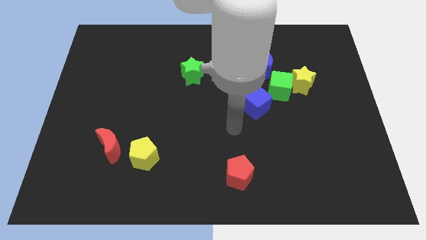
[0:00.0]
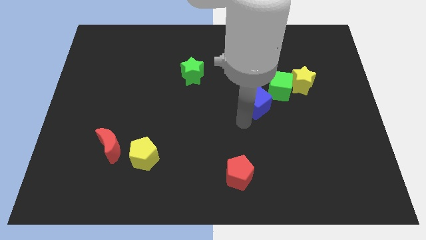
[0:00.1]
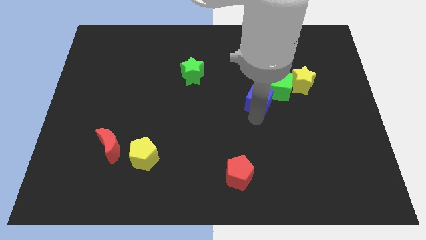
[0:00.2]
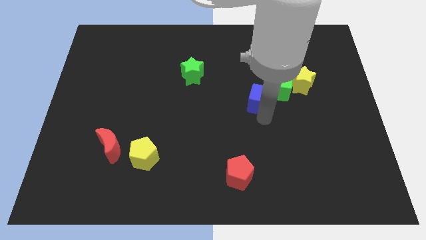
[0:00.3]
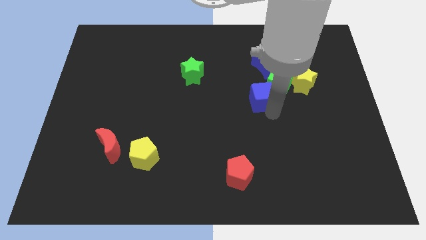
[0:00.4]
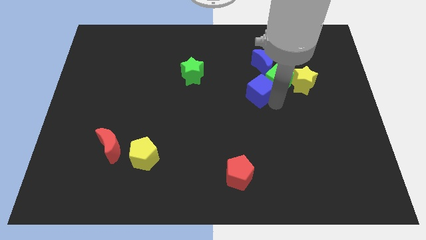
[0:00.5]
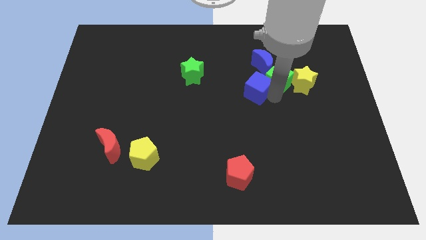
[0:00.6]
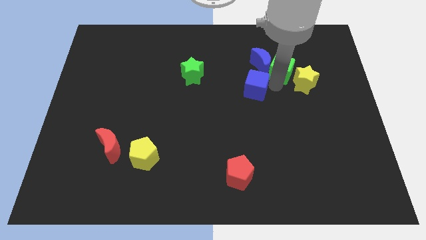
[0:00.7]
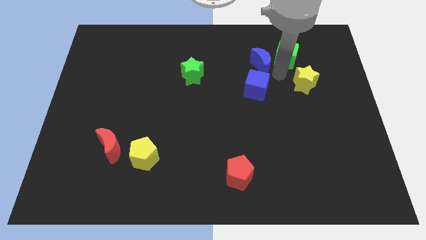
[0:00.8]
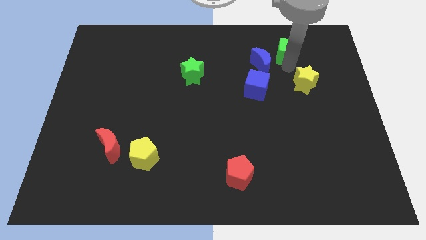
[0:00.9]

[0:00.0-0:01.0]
separate the yellow star from the green cube

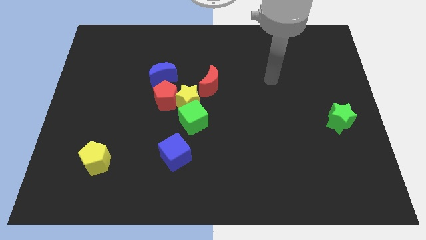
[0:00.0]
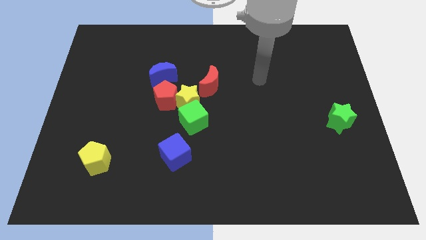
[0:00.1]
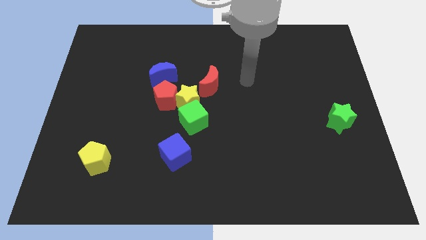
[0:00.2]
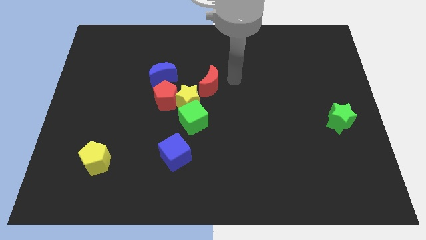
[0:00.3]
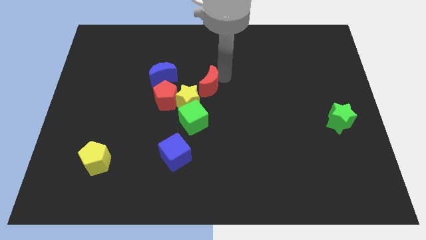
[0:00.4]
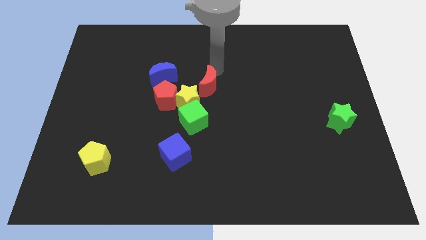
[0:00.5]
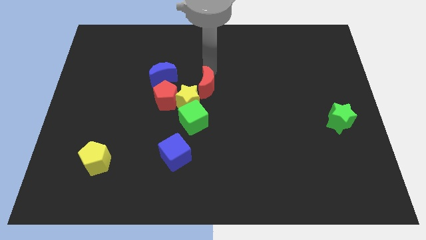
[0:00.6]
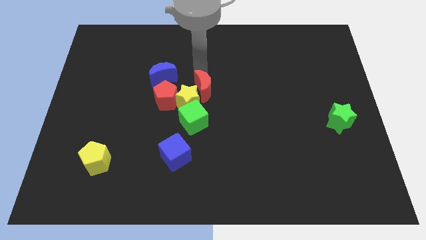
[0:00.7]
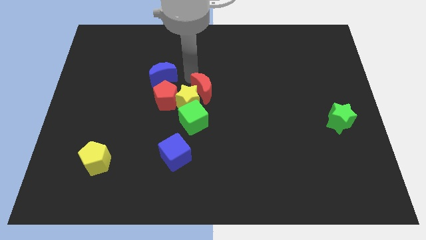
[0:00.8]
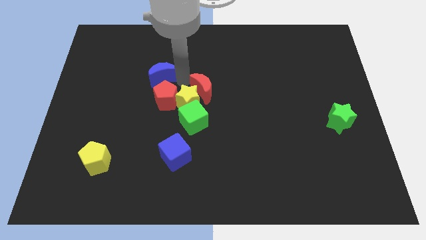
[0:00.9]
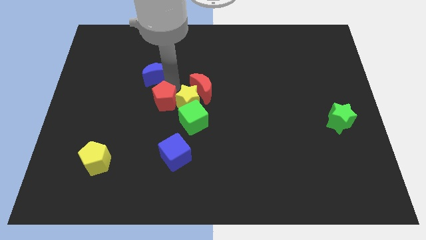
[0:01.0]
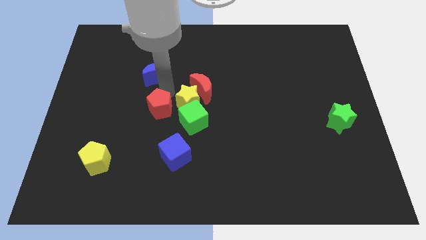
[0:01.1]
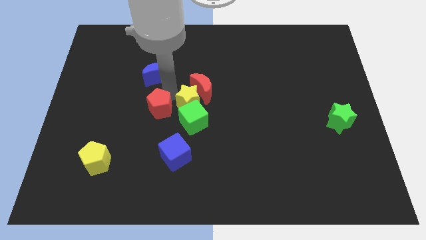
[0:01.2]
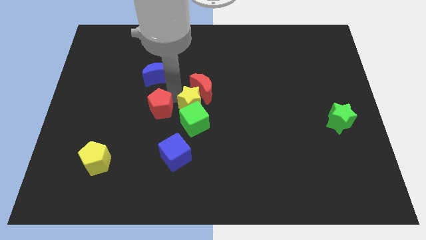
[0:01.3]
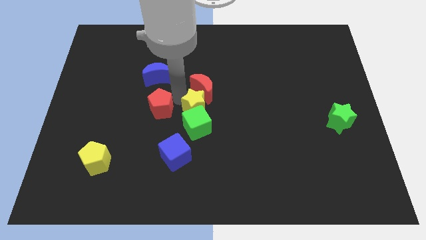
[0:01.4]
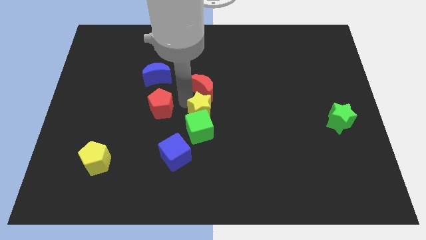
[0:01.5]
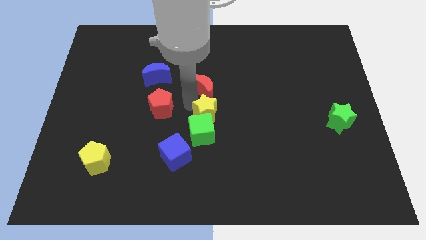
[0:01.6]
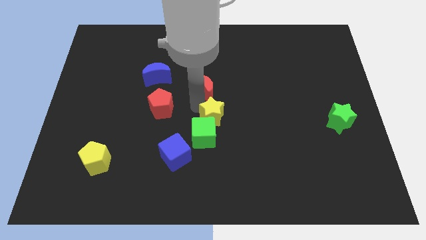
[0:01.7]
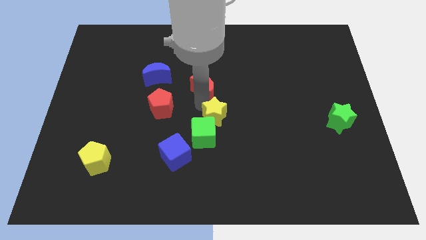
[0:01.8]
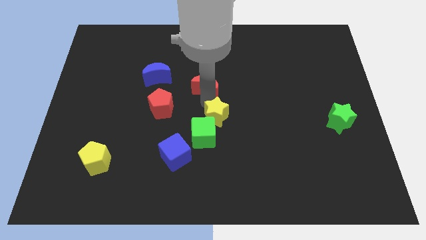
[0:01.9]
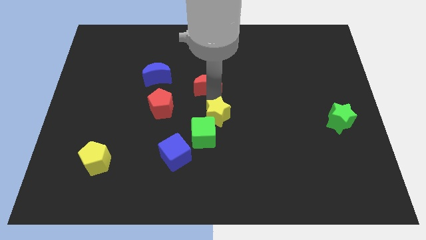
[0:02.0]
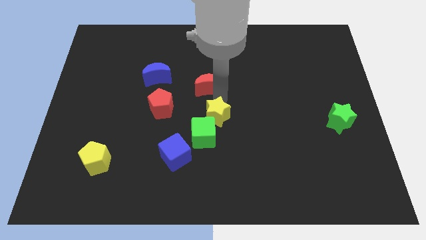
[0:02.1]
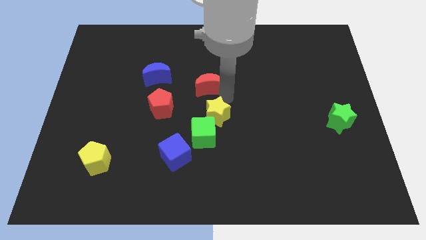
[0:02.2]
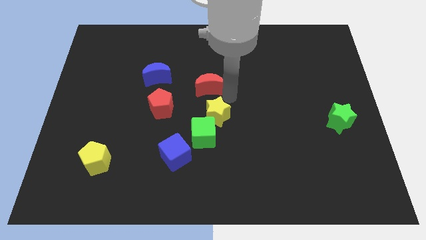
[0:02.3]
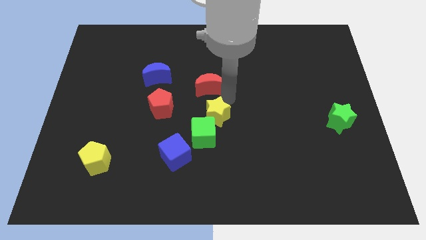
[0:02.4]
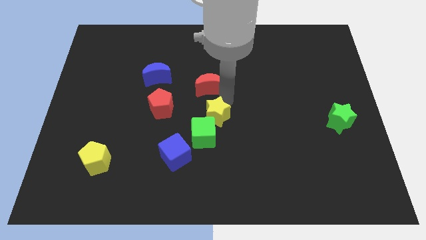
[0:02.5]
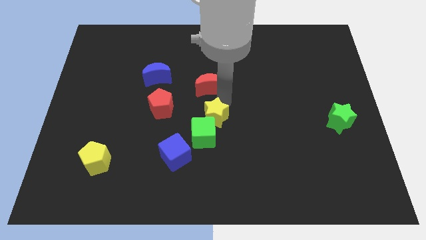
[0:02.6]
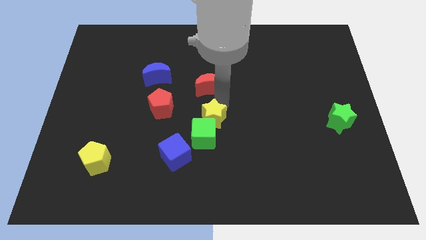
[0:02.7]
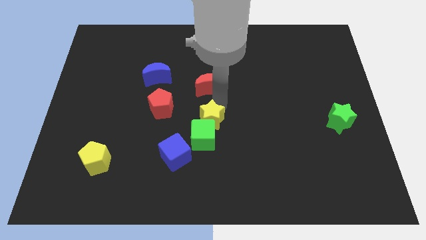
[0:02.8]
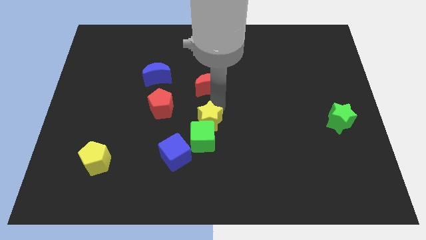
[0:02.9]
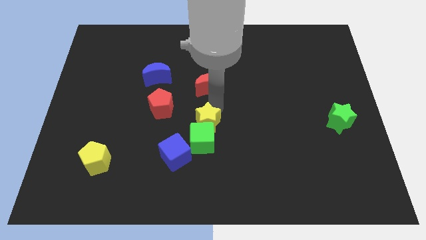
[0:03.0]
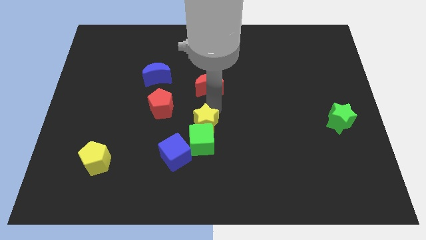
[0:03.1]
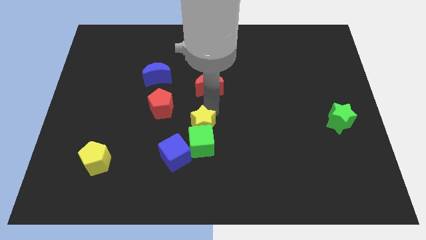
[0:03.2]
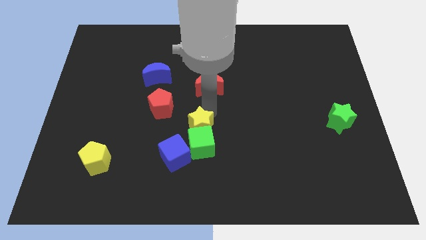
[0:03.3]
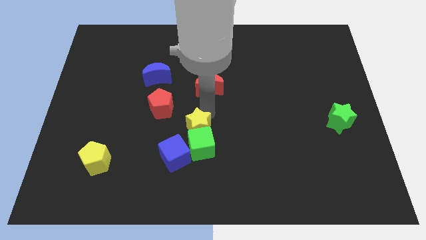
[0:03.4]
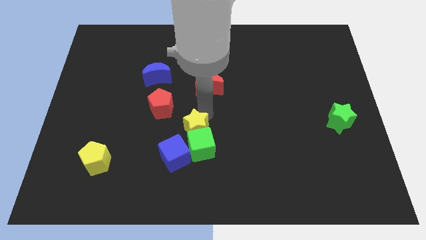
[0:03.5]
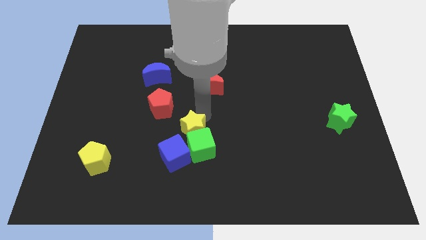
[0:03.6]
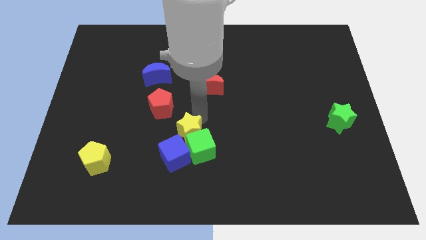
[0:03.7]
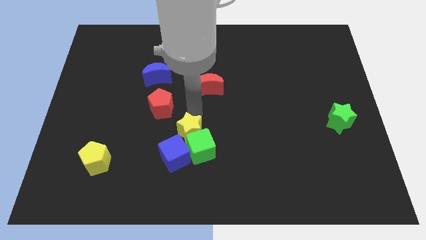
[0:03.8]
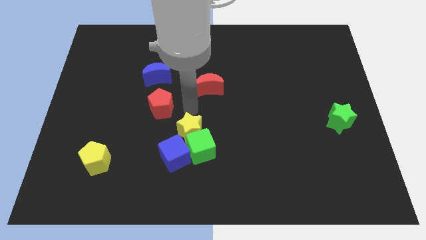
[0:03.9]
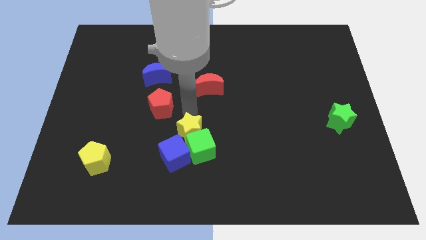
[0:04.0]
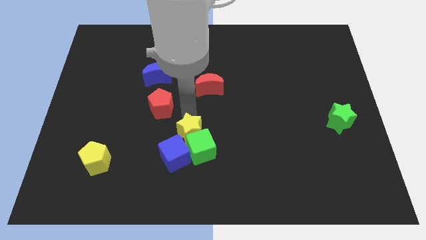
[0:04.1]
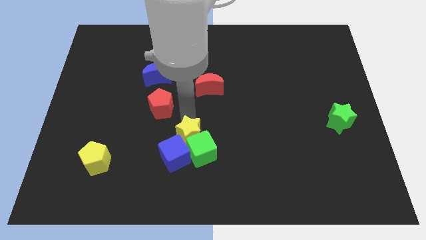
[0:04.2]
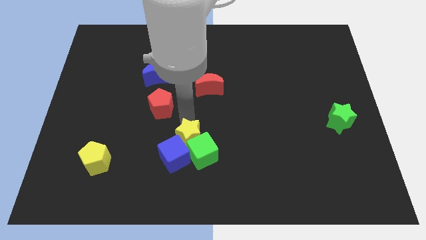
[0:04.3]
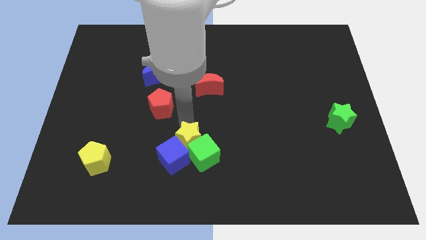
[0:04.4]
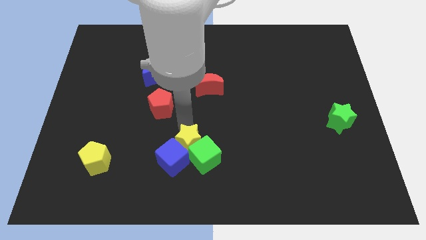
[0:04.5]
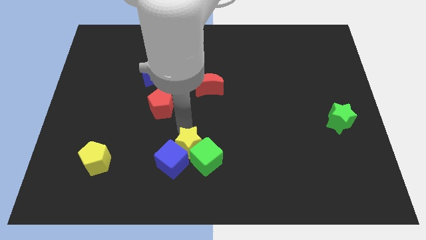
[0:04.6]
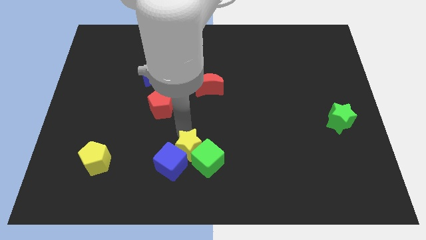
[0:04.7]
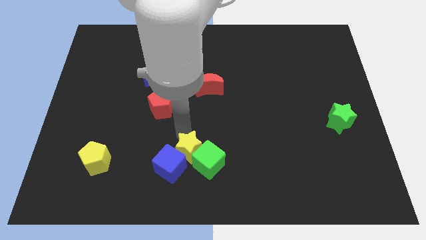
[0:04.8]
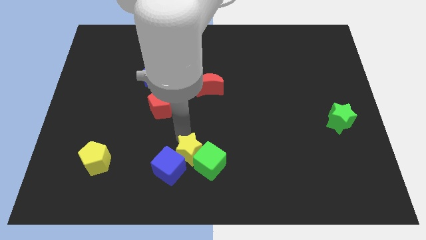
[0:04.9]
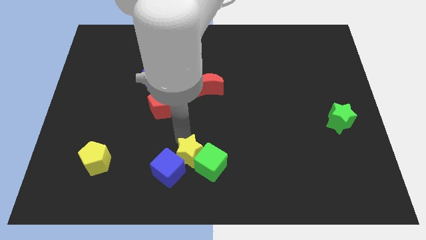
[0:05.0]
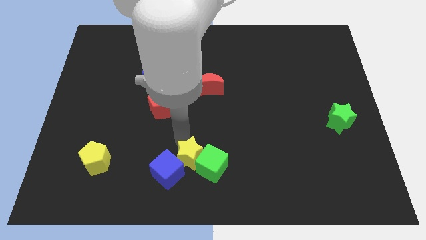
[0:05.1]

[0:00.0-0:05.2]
pull the yellow star apart from the green cube, red pentagon, and red moon

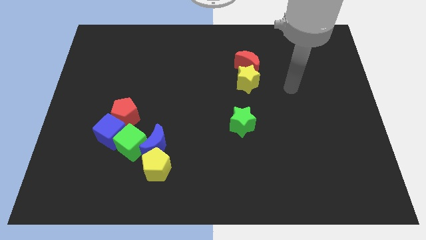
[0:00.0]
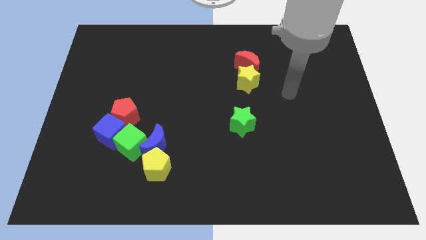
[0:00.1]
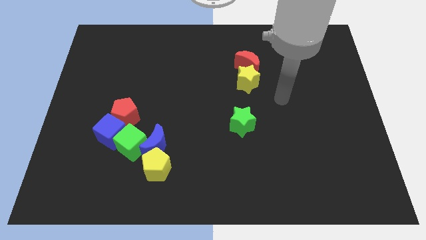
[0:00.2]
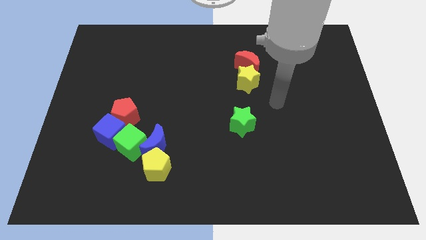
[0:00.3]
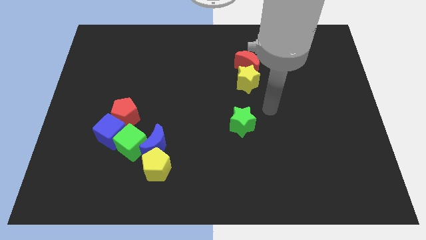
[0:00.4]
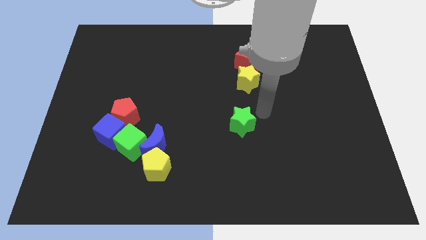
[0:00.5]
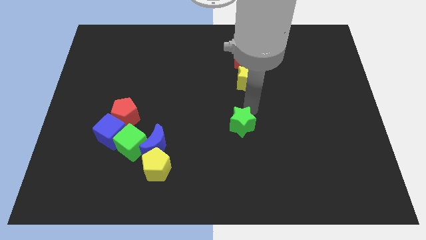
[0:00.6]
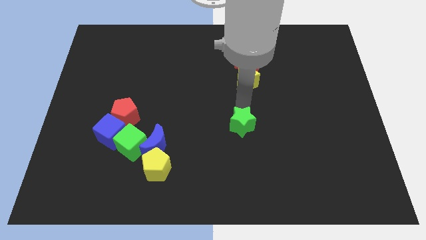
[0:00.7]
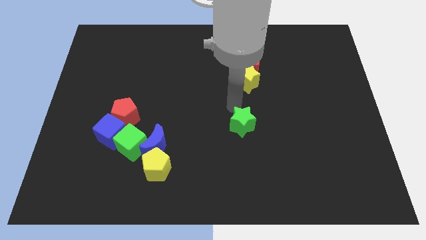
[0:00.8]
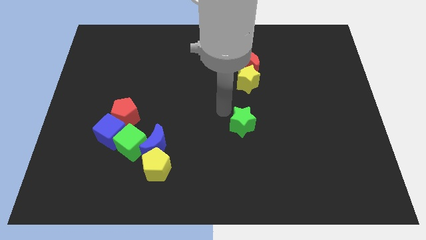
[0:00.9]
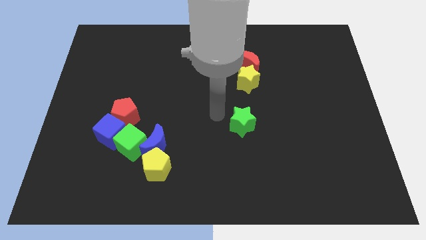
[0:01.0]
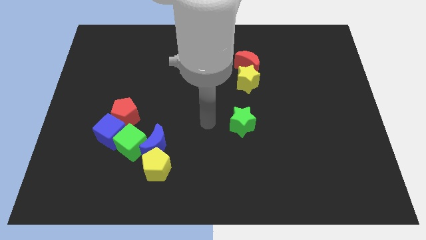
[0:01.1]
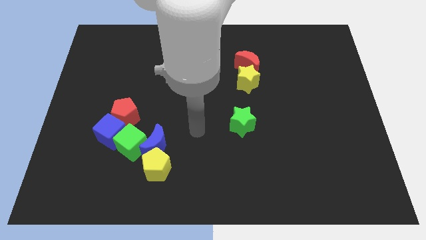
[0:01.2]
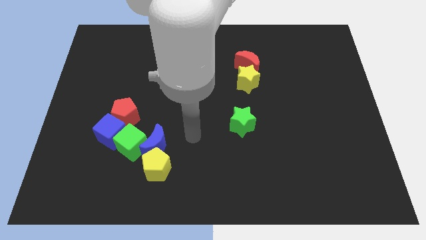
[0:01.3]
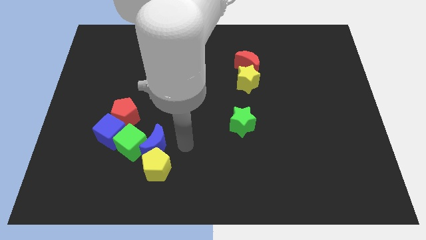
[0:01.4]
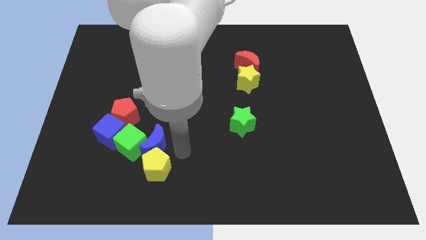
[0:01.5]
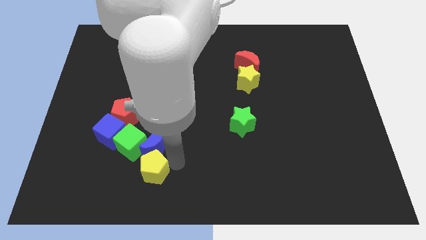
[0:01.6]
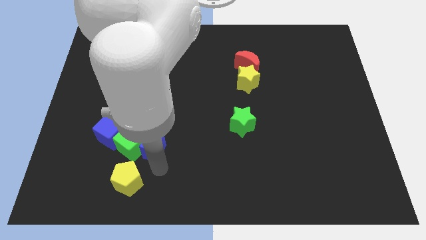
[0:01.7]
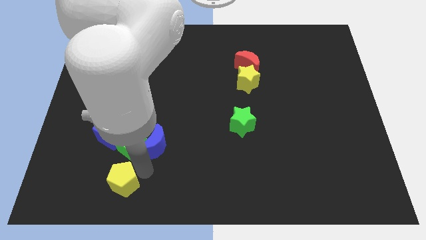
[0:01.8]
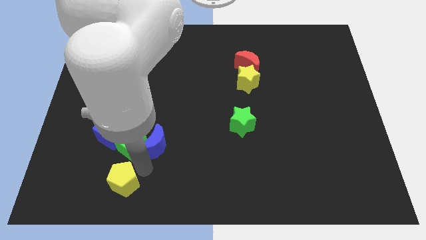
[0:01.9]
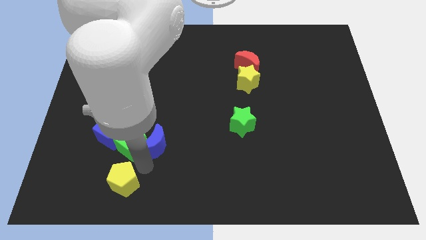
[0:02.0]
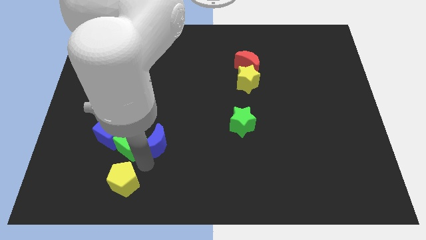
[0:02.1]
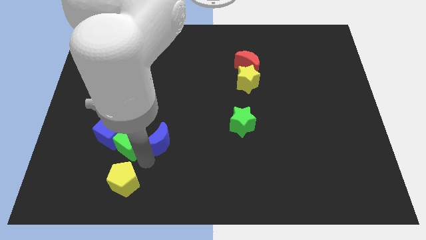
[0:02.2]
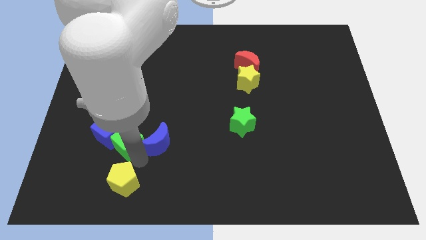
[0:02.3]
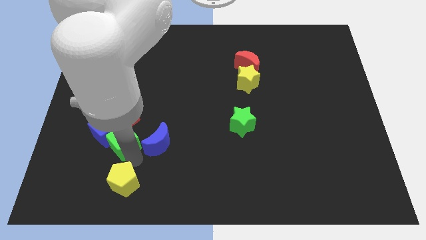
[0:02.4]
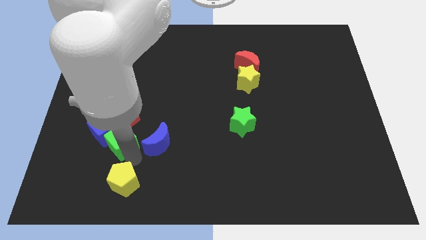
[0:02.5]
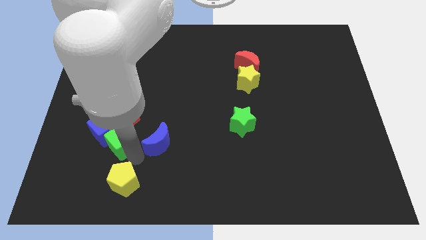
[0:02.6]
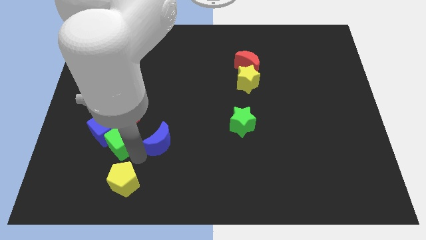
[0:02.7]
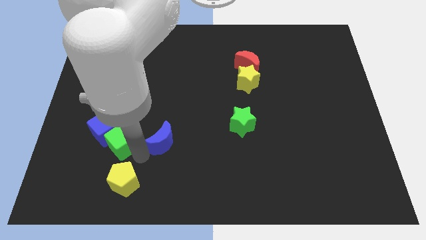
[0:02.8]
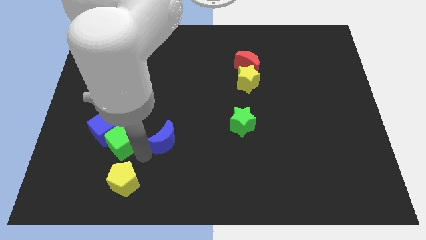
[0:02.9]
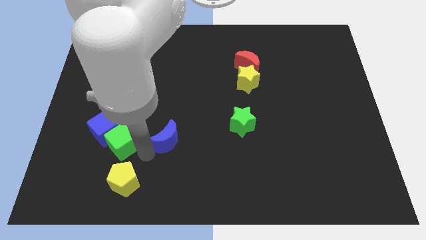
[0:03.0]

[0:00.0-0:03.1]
separate the blue moon from the green cube and yellow pentagon

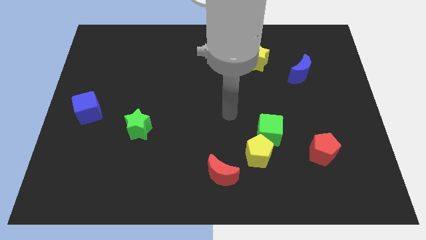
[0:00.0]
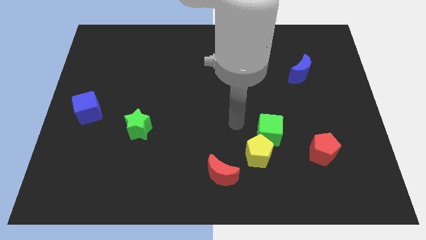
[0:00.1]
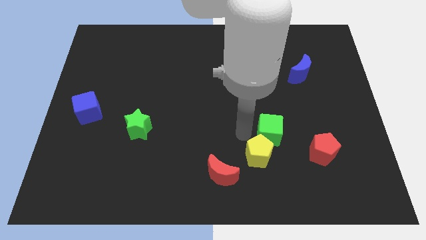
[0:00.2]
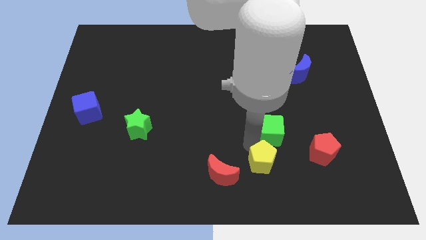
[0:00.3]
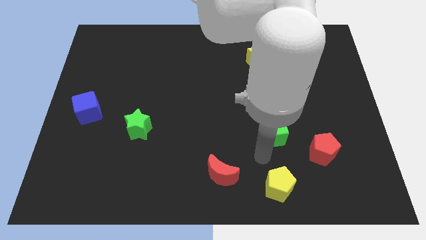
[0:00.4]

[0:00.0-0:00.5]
pull the green cube apart from the yellow pentagon
